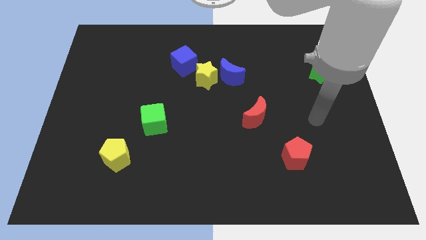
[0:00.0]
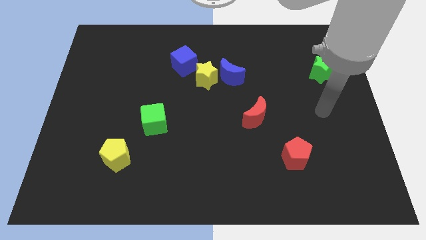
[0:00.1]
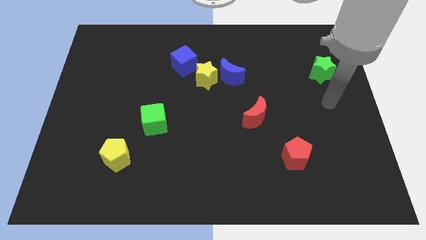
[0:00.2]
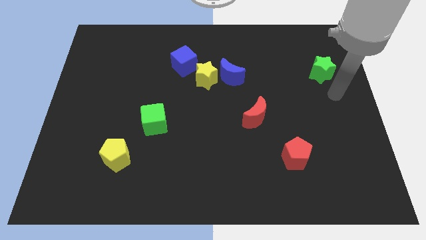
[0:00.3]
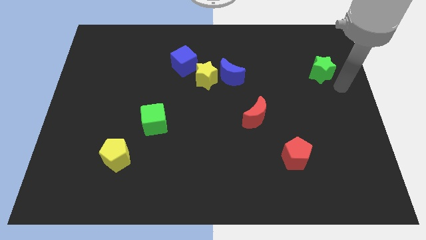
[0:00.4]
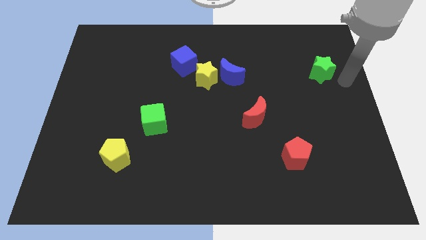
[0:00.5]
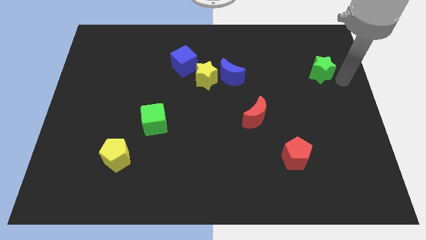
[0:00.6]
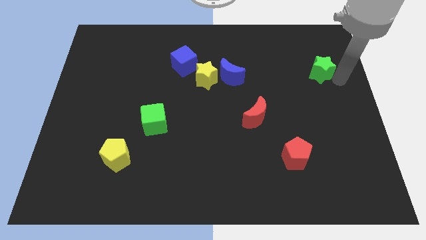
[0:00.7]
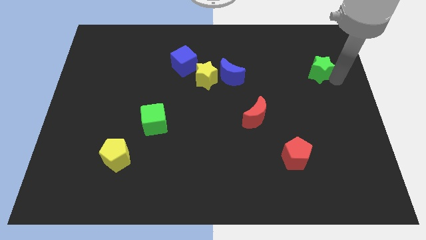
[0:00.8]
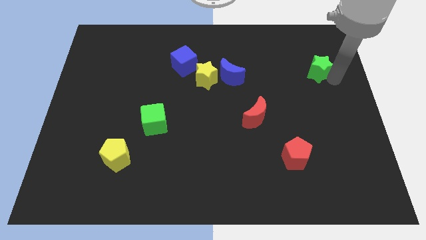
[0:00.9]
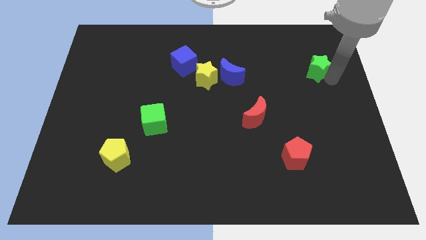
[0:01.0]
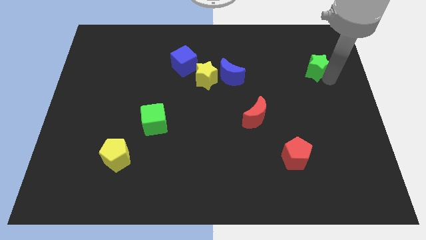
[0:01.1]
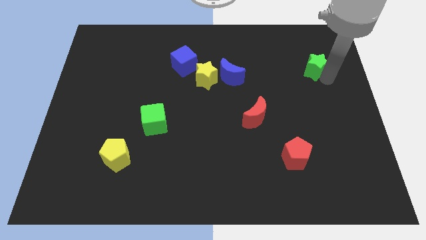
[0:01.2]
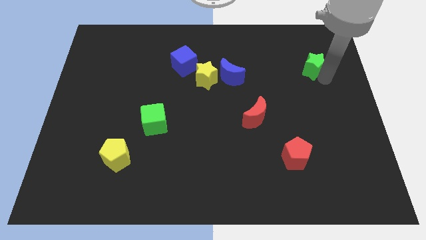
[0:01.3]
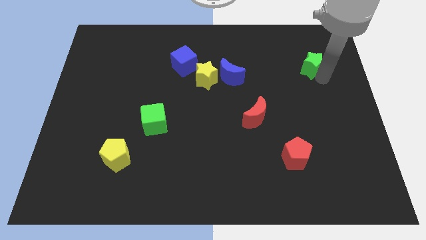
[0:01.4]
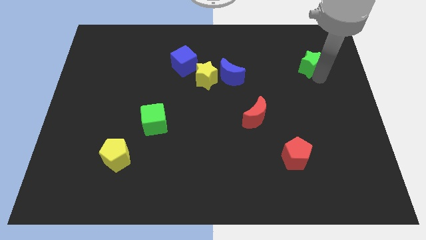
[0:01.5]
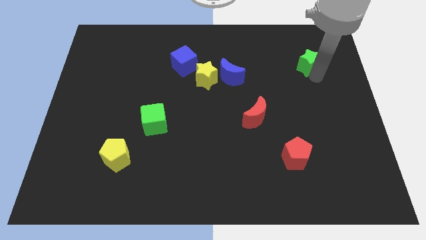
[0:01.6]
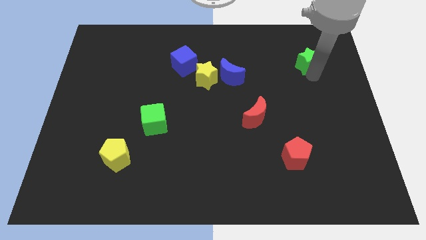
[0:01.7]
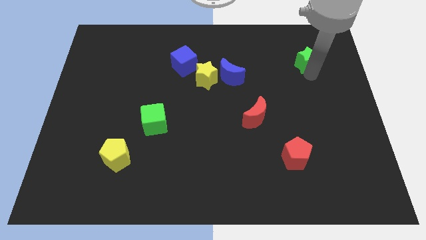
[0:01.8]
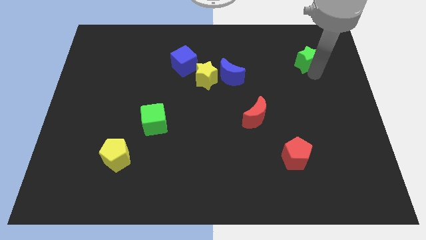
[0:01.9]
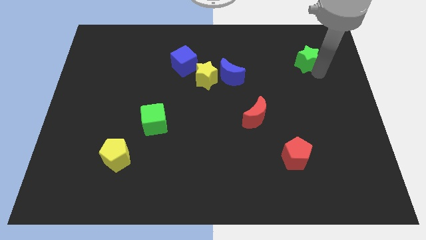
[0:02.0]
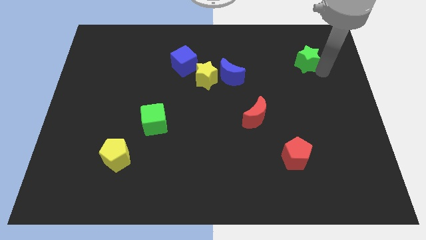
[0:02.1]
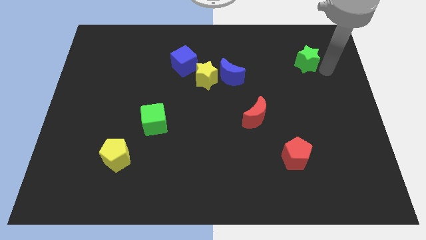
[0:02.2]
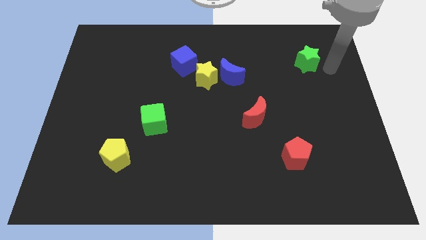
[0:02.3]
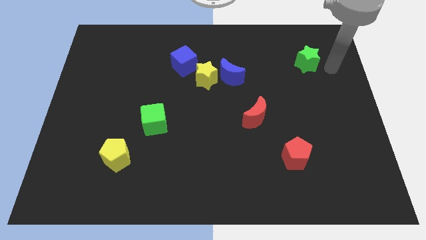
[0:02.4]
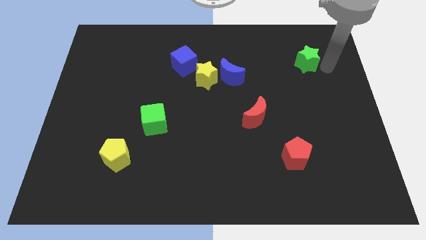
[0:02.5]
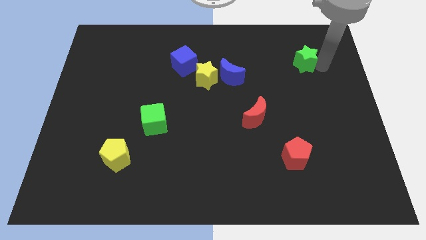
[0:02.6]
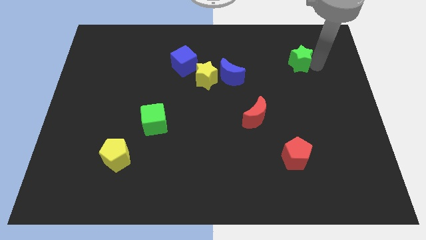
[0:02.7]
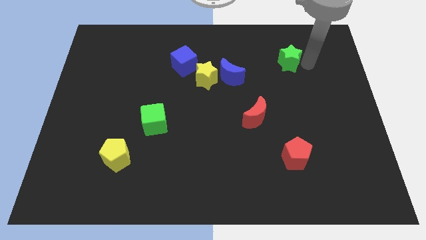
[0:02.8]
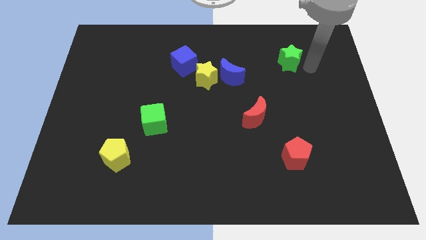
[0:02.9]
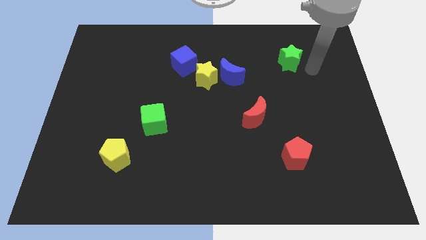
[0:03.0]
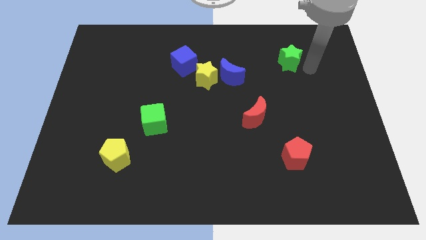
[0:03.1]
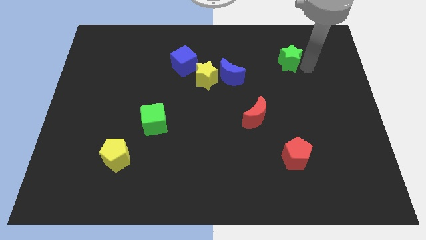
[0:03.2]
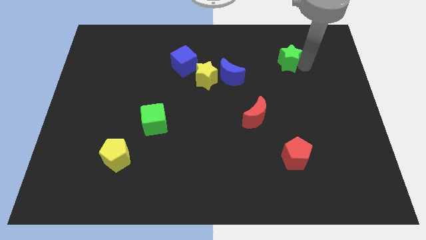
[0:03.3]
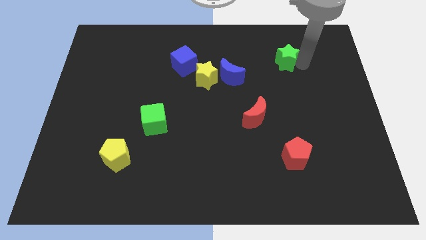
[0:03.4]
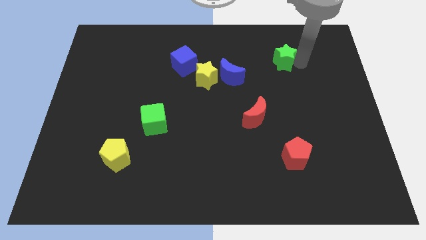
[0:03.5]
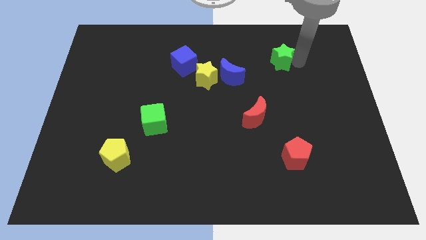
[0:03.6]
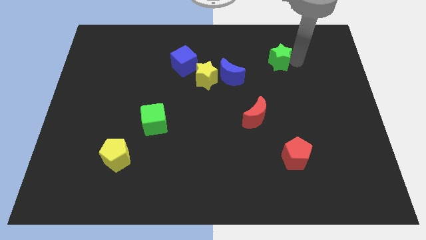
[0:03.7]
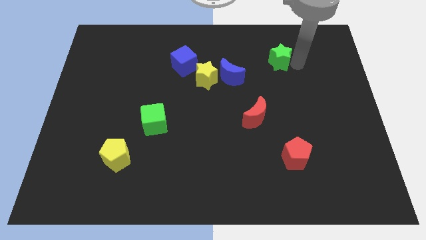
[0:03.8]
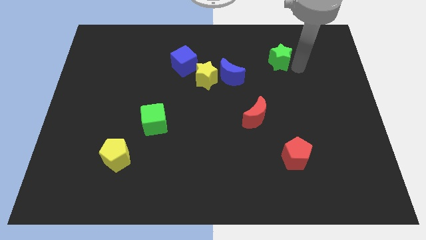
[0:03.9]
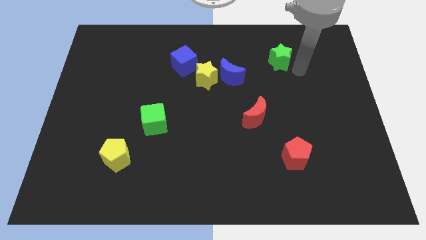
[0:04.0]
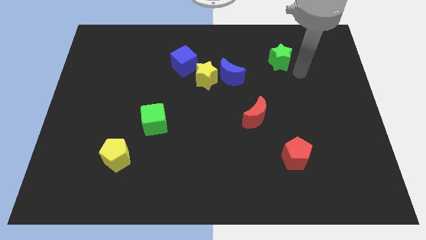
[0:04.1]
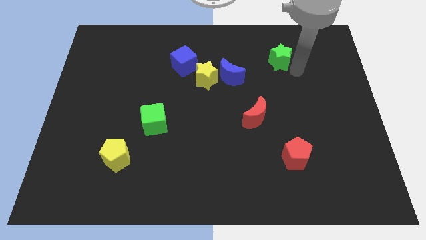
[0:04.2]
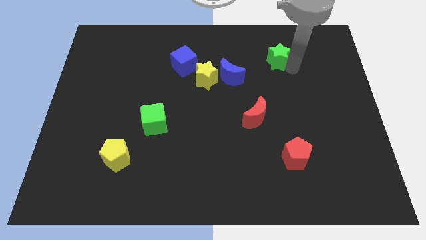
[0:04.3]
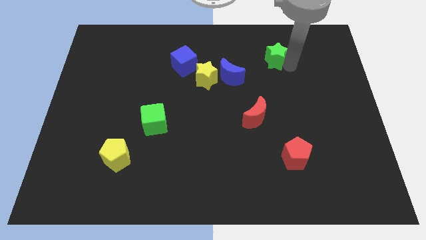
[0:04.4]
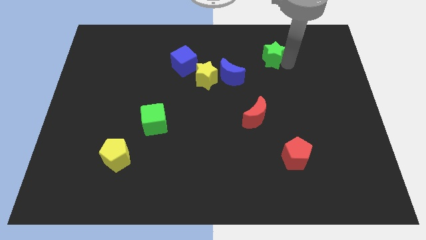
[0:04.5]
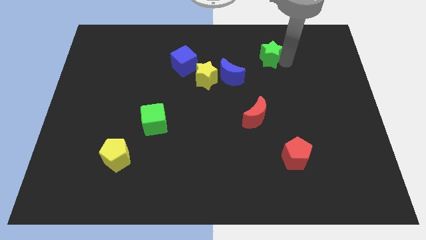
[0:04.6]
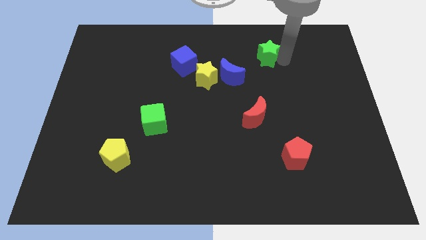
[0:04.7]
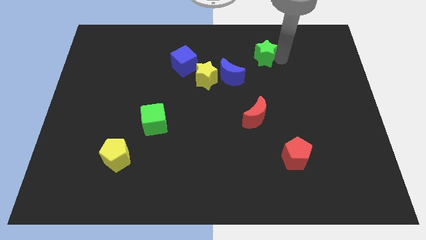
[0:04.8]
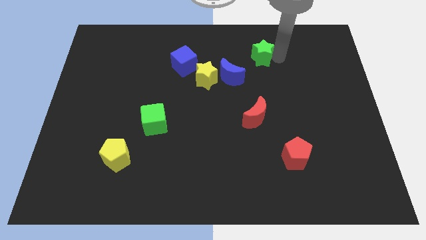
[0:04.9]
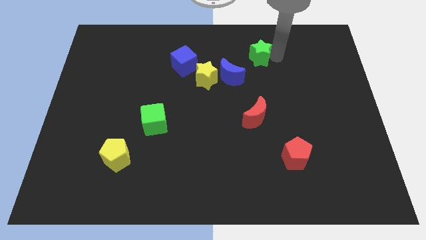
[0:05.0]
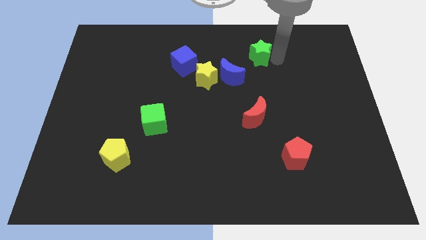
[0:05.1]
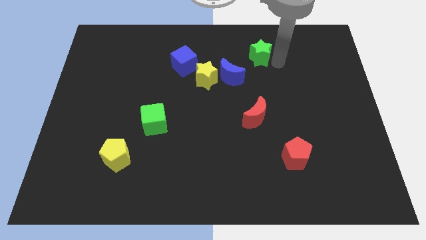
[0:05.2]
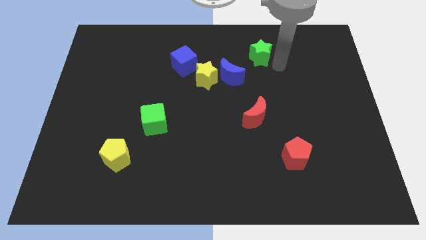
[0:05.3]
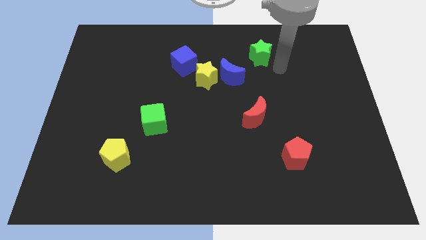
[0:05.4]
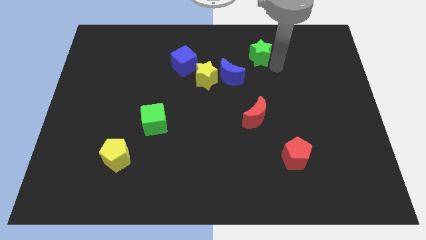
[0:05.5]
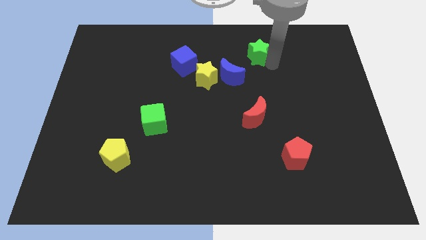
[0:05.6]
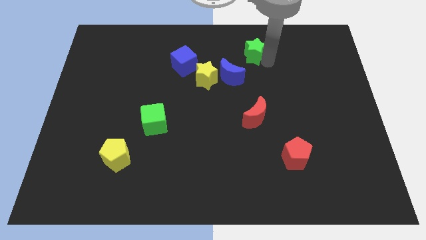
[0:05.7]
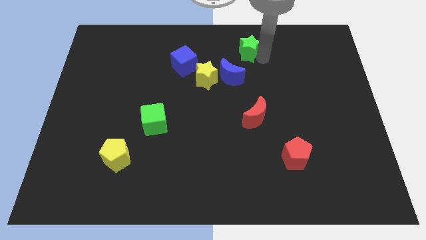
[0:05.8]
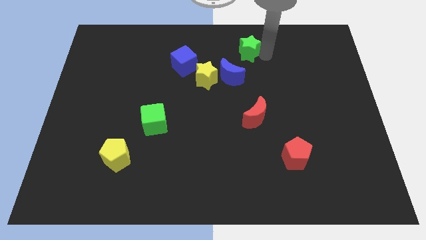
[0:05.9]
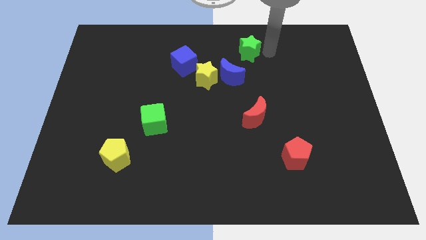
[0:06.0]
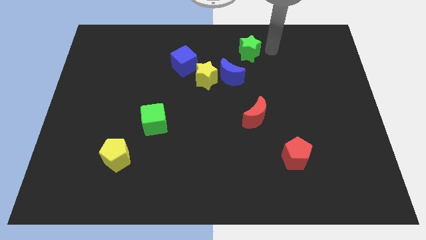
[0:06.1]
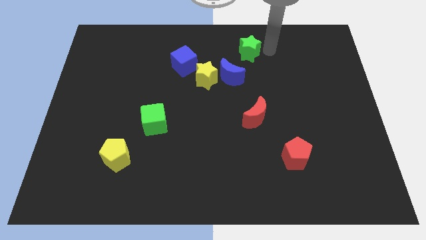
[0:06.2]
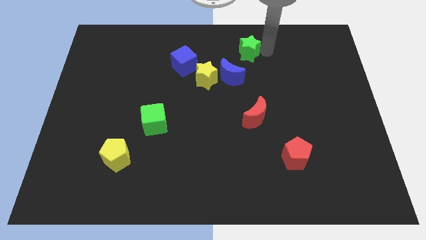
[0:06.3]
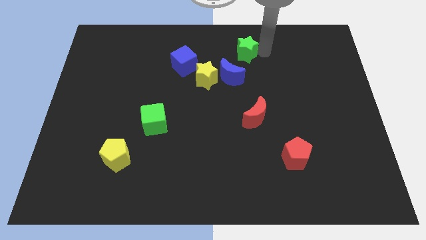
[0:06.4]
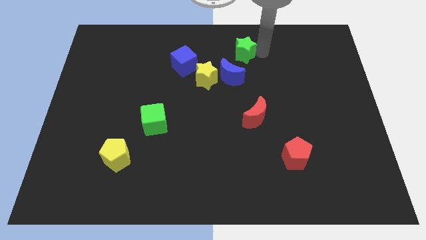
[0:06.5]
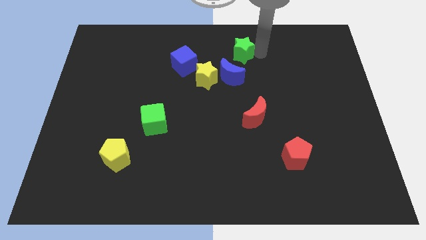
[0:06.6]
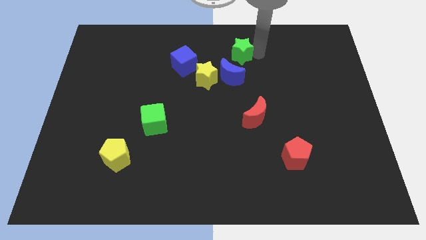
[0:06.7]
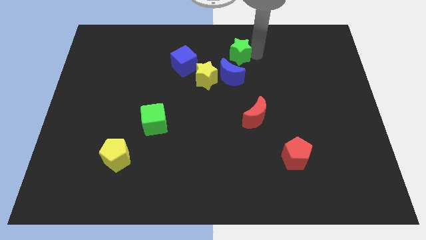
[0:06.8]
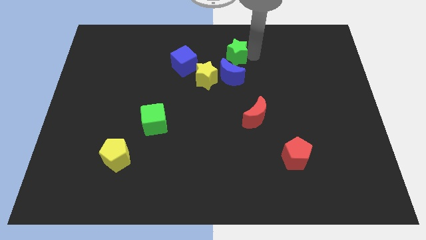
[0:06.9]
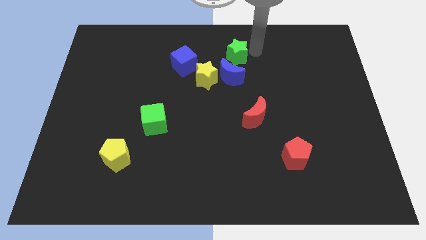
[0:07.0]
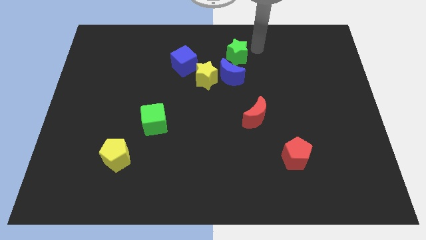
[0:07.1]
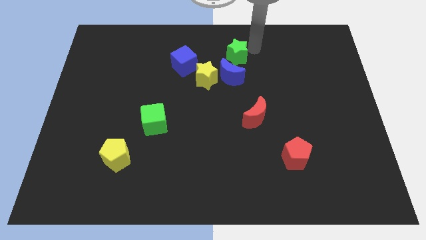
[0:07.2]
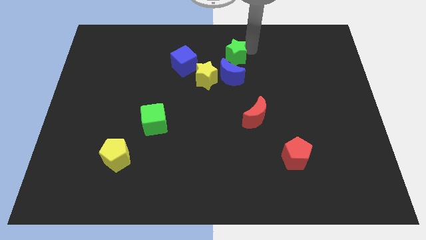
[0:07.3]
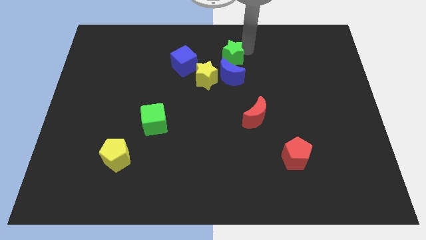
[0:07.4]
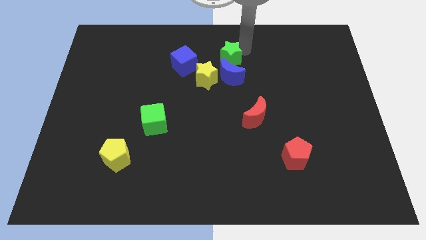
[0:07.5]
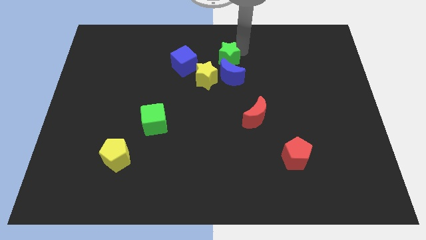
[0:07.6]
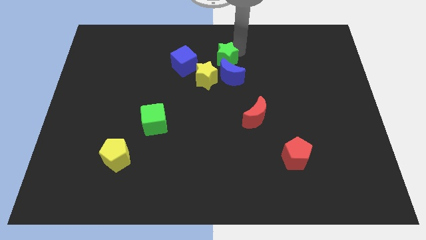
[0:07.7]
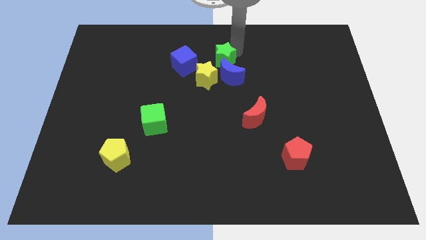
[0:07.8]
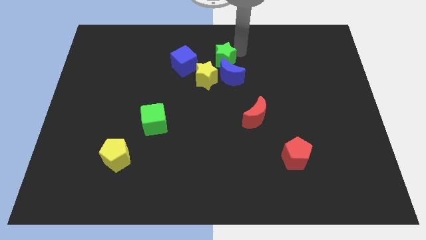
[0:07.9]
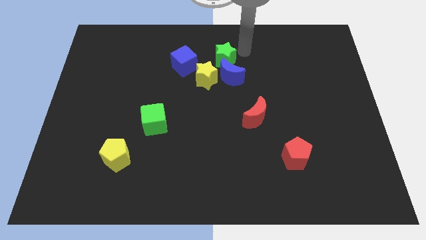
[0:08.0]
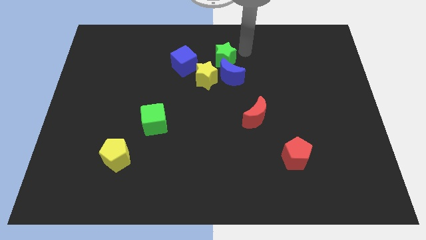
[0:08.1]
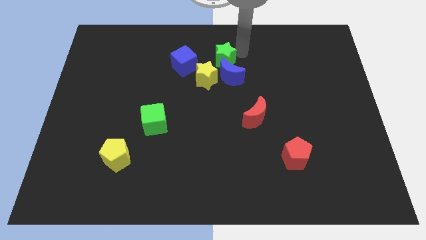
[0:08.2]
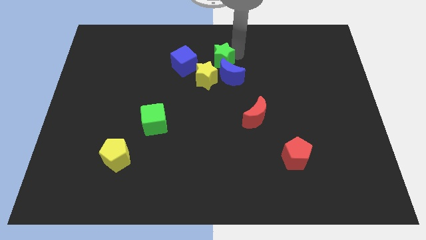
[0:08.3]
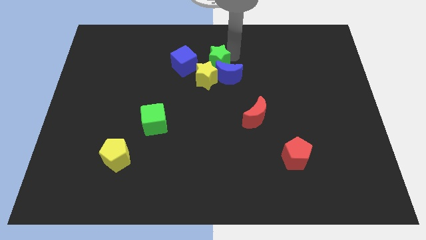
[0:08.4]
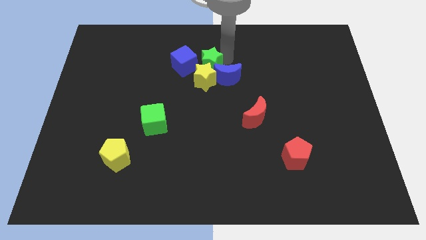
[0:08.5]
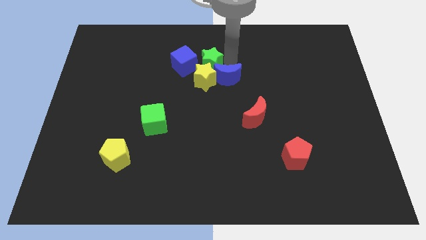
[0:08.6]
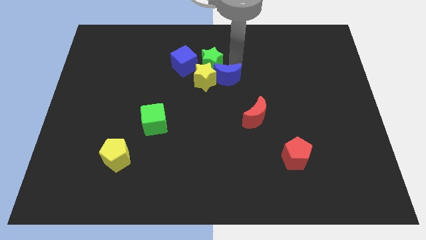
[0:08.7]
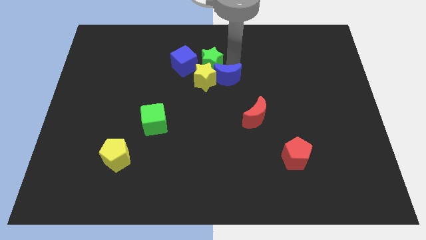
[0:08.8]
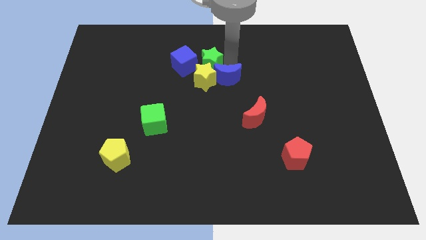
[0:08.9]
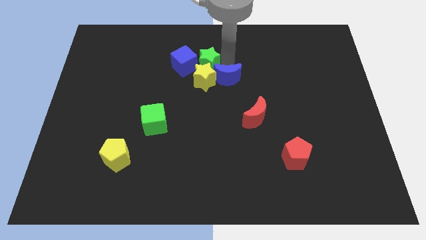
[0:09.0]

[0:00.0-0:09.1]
push the green star to the blue cube
